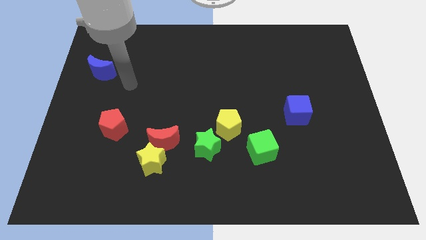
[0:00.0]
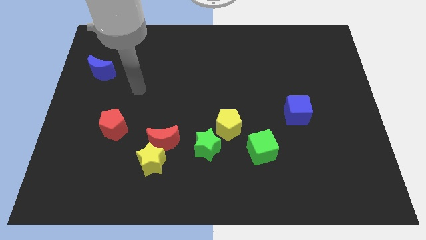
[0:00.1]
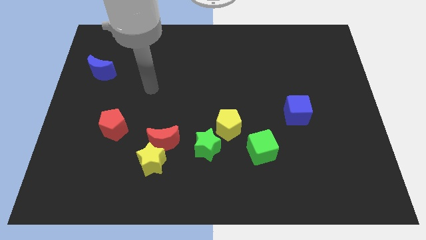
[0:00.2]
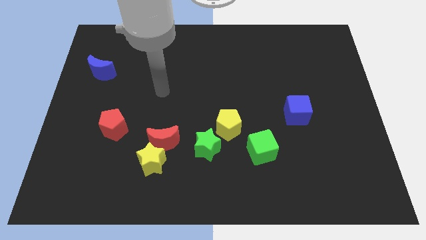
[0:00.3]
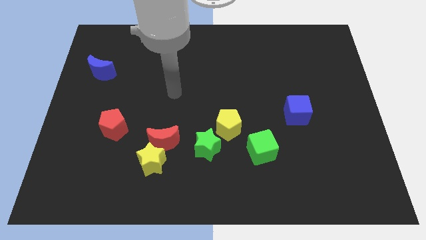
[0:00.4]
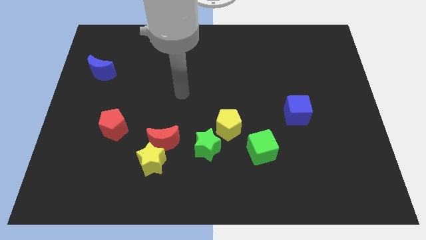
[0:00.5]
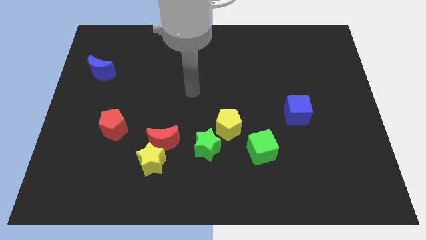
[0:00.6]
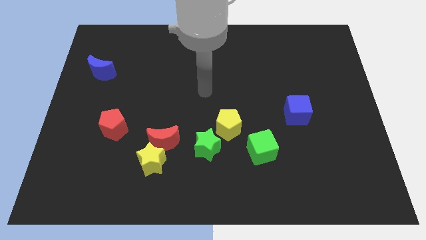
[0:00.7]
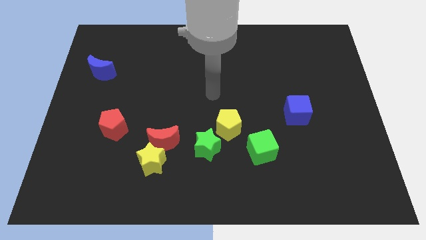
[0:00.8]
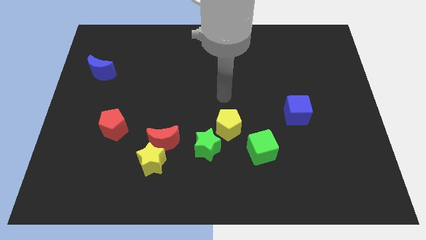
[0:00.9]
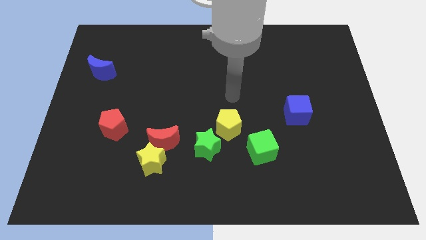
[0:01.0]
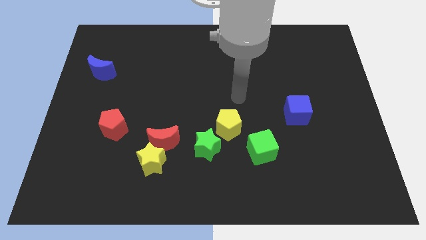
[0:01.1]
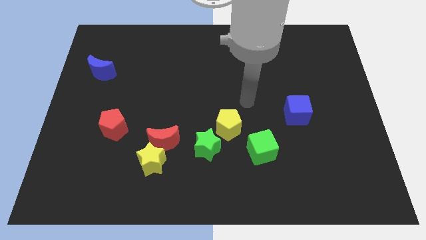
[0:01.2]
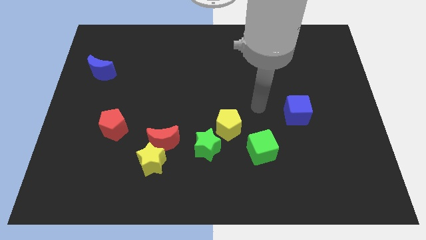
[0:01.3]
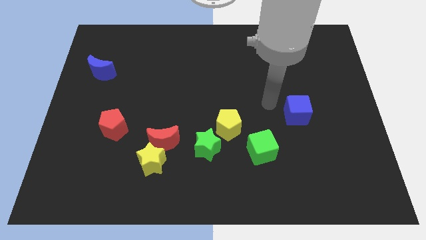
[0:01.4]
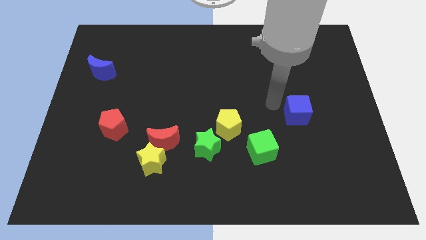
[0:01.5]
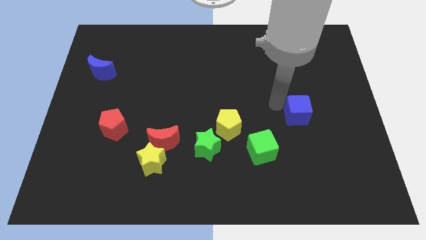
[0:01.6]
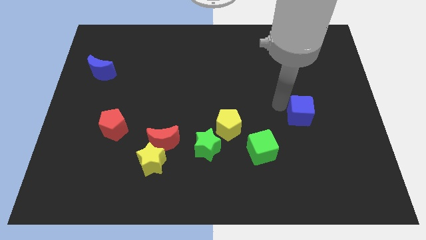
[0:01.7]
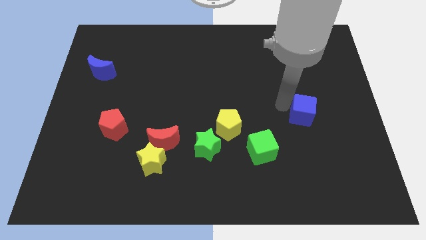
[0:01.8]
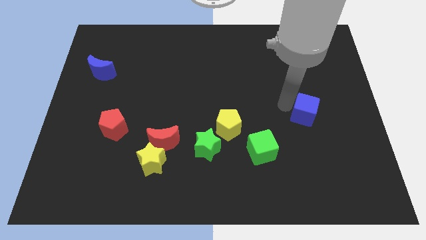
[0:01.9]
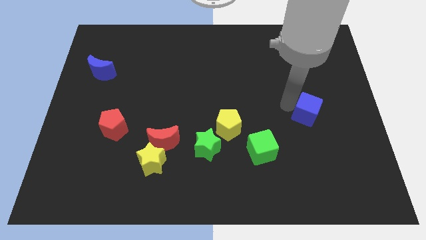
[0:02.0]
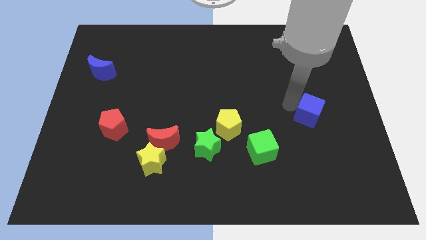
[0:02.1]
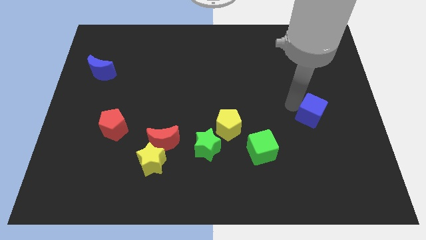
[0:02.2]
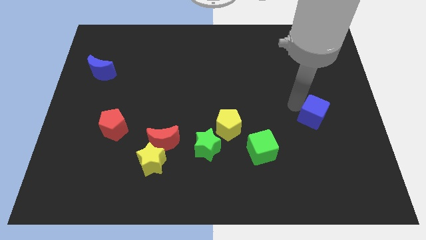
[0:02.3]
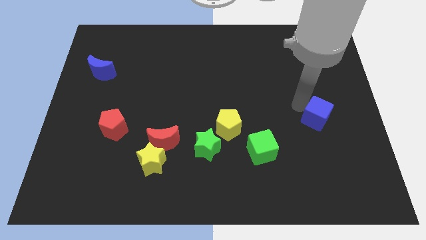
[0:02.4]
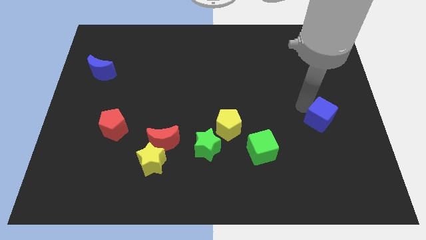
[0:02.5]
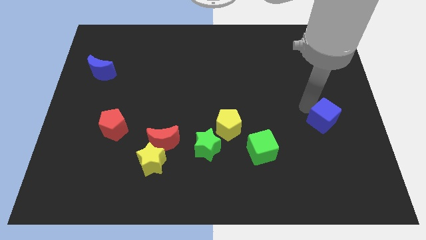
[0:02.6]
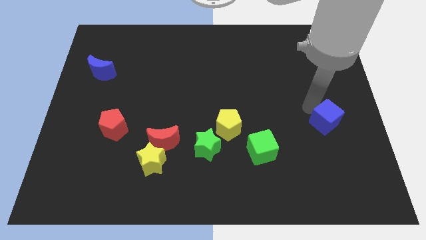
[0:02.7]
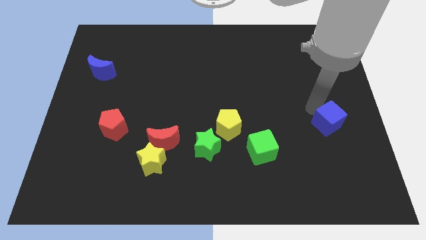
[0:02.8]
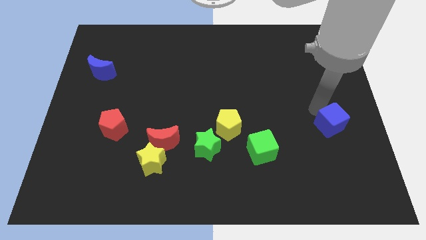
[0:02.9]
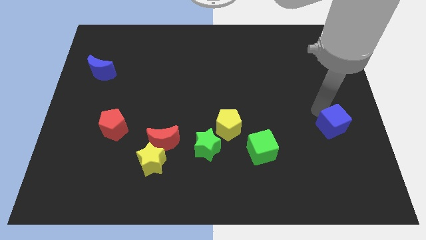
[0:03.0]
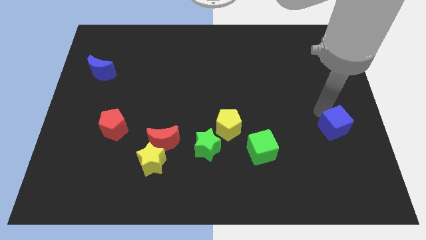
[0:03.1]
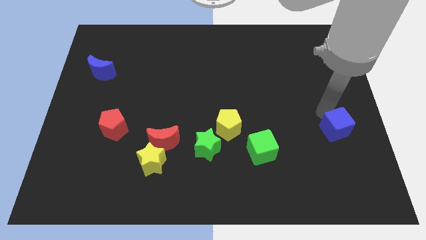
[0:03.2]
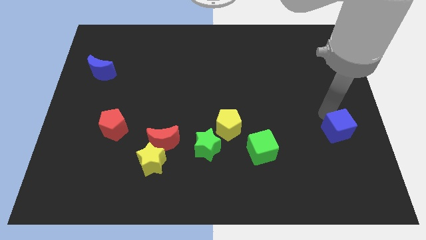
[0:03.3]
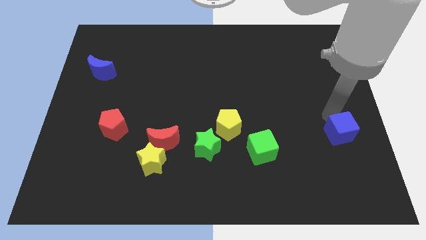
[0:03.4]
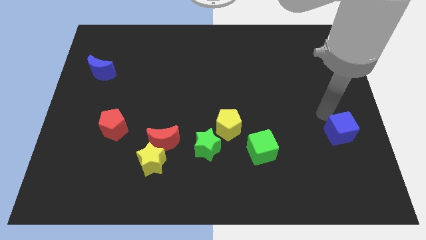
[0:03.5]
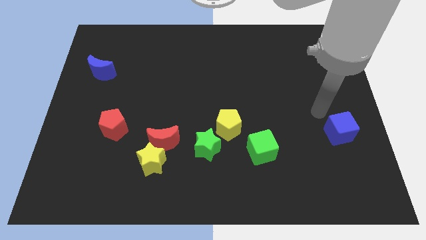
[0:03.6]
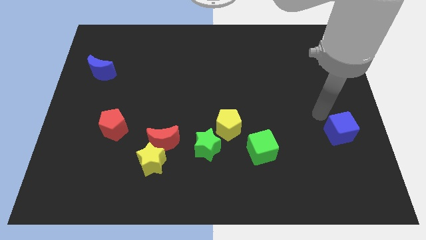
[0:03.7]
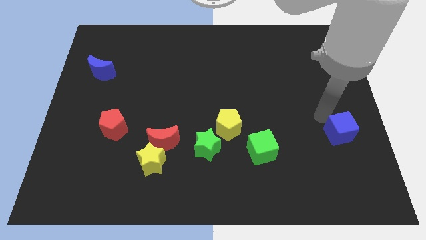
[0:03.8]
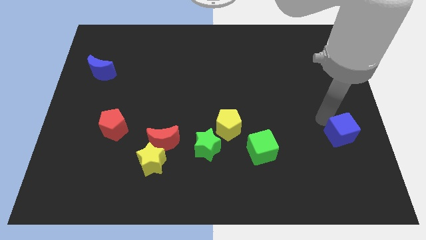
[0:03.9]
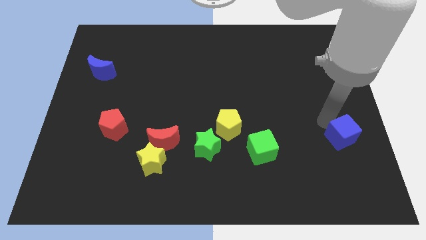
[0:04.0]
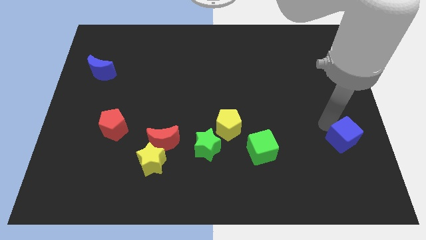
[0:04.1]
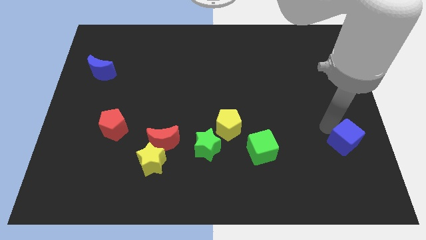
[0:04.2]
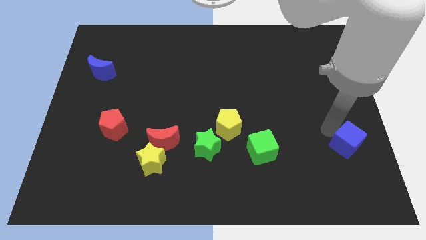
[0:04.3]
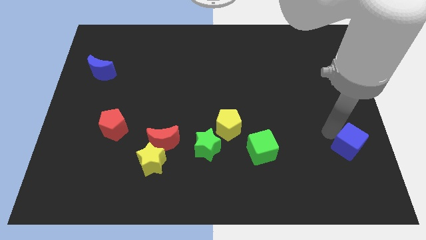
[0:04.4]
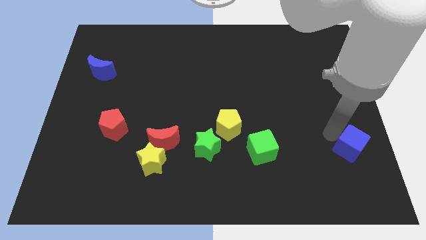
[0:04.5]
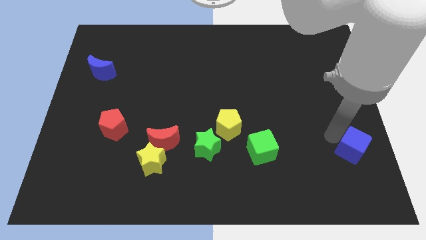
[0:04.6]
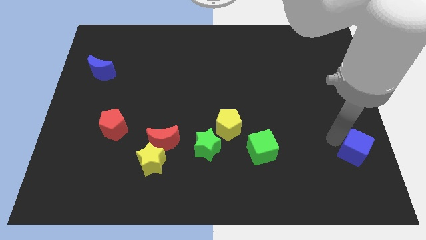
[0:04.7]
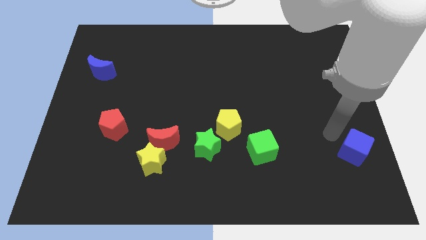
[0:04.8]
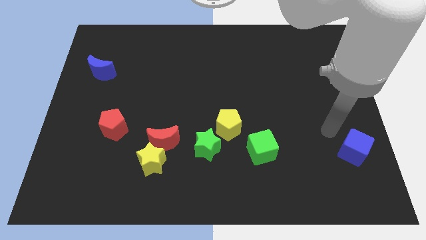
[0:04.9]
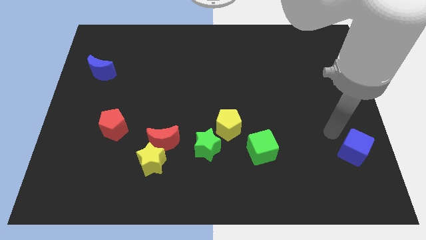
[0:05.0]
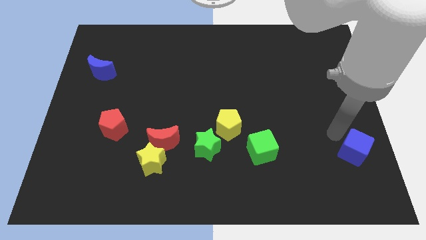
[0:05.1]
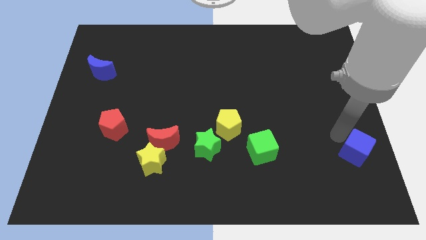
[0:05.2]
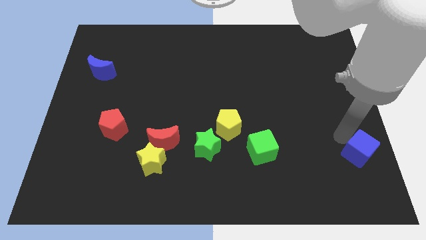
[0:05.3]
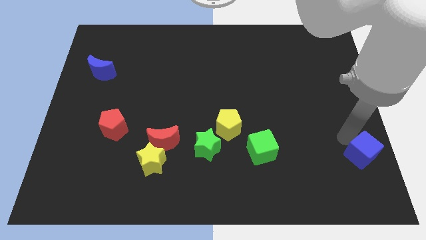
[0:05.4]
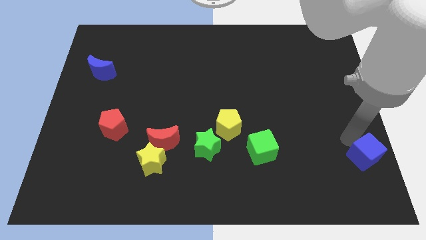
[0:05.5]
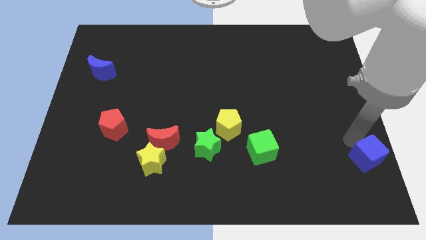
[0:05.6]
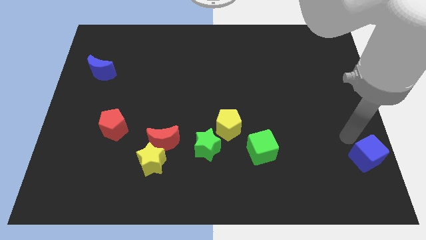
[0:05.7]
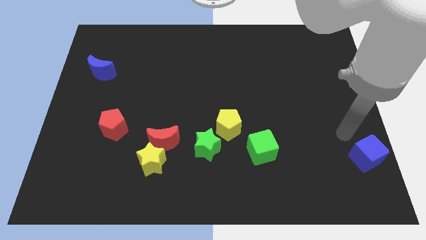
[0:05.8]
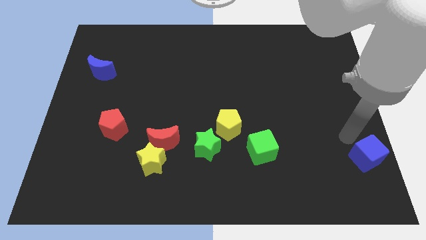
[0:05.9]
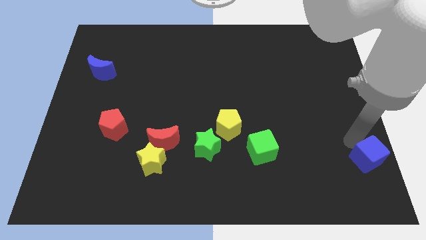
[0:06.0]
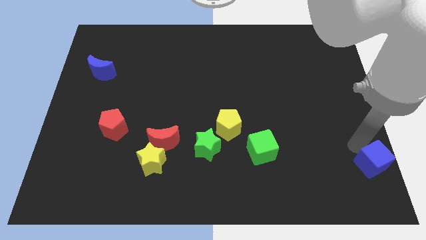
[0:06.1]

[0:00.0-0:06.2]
put the blue cube to the lower right corner
